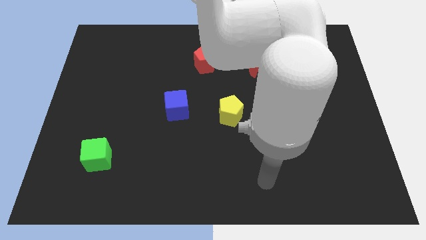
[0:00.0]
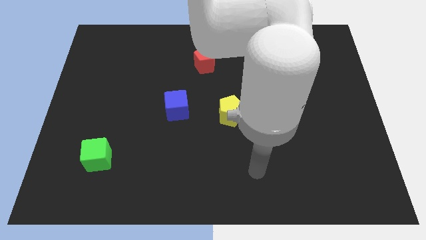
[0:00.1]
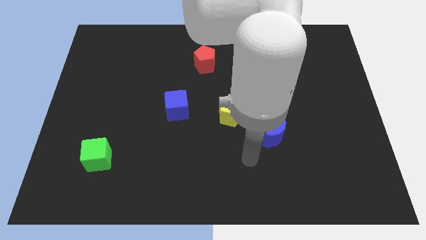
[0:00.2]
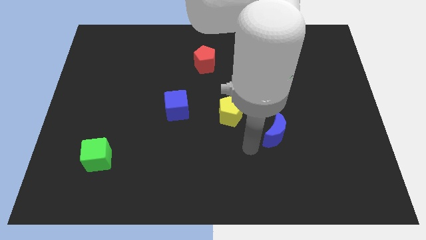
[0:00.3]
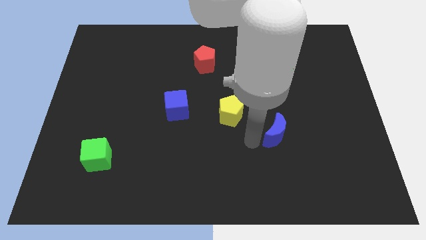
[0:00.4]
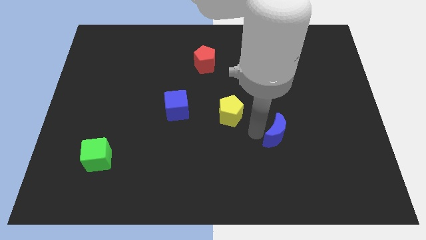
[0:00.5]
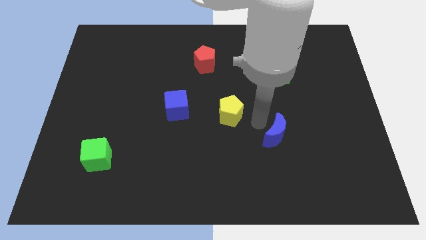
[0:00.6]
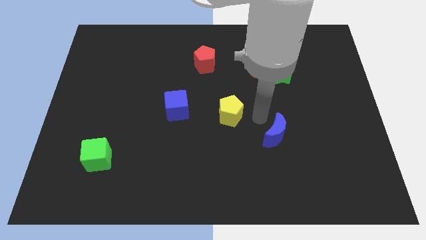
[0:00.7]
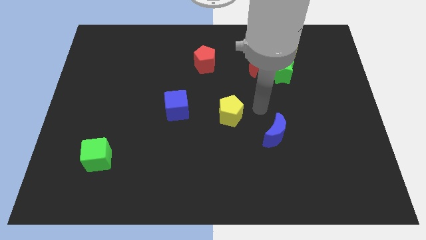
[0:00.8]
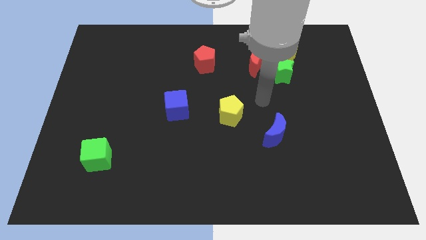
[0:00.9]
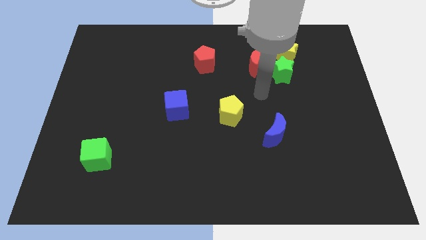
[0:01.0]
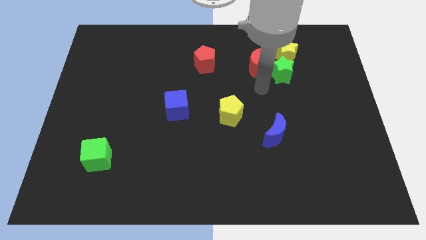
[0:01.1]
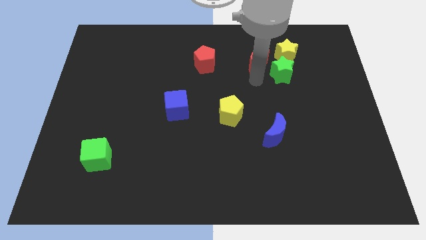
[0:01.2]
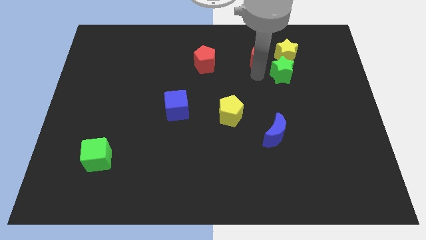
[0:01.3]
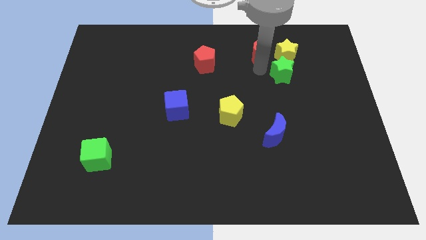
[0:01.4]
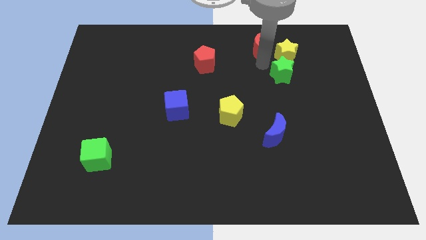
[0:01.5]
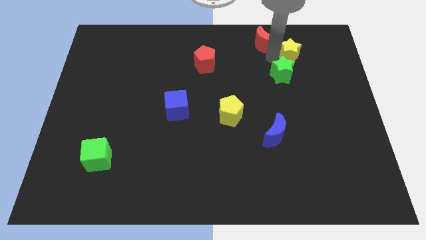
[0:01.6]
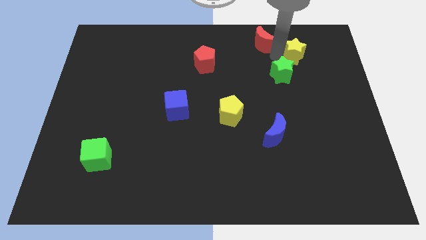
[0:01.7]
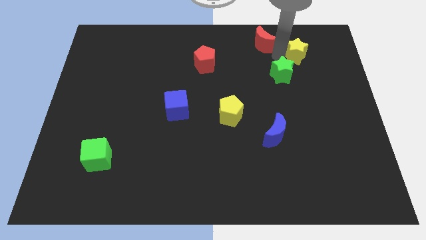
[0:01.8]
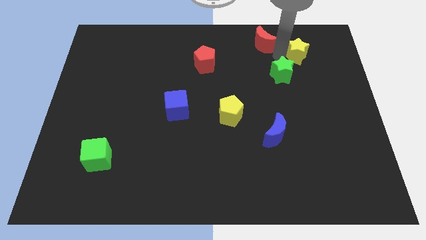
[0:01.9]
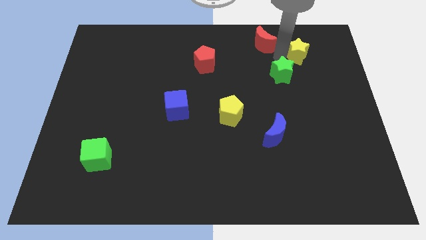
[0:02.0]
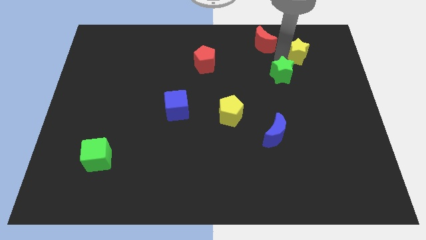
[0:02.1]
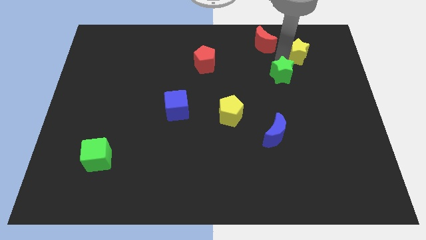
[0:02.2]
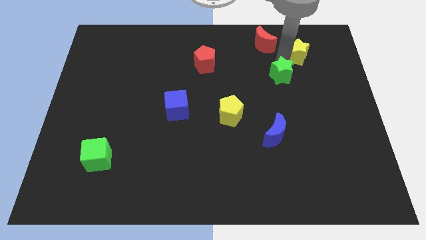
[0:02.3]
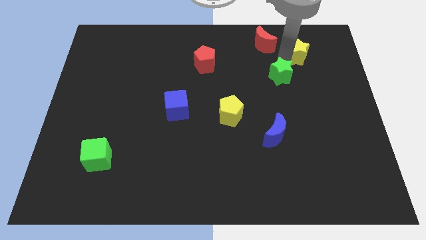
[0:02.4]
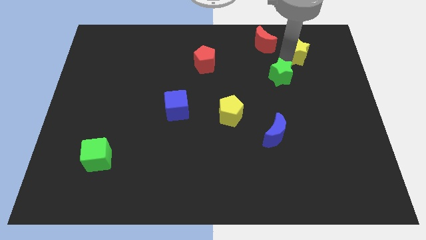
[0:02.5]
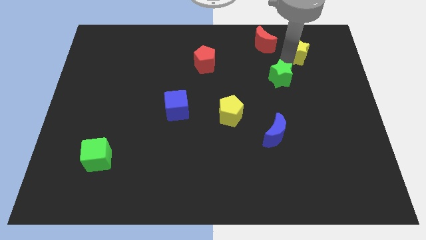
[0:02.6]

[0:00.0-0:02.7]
move the green star away from the yellow star and red moon

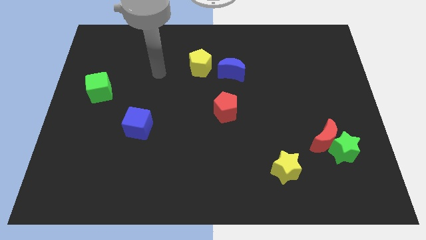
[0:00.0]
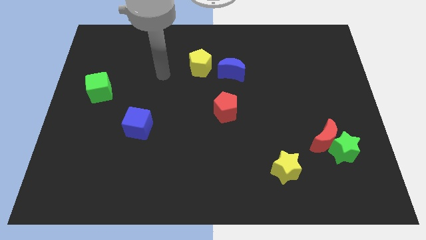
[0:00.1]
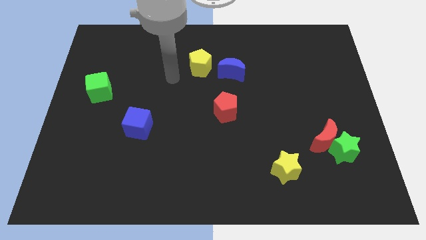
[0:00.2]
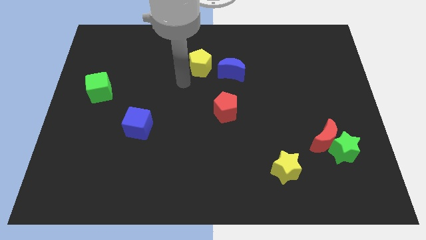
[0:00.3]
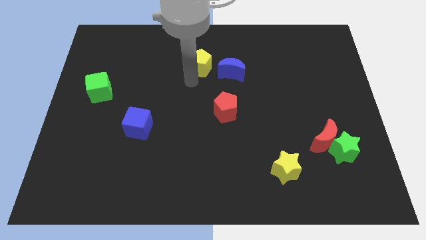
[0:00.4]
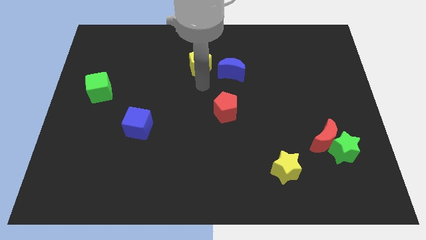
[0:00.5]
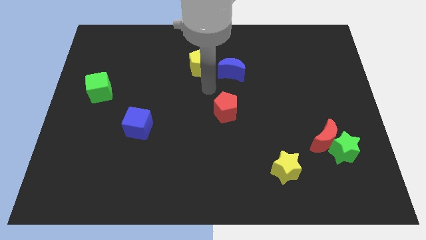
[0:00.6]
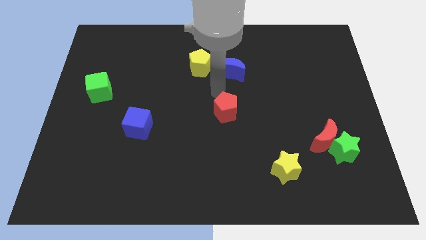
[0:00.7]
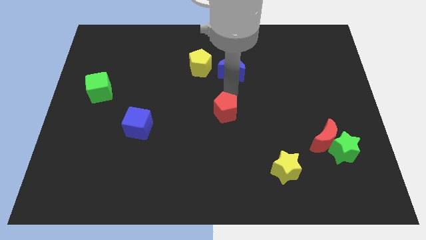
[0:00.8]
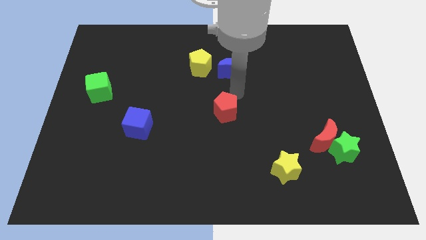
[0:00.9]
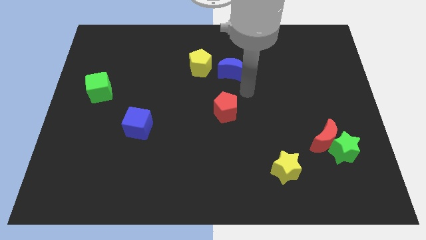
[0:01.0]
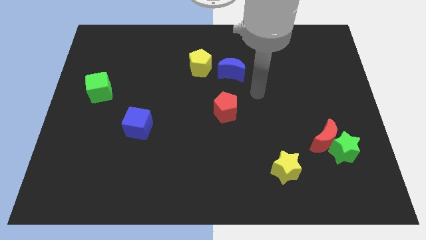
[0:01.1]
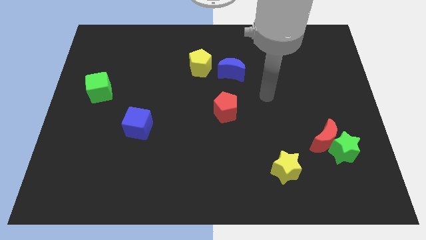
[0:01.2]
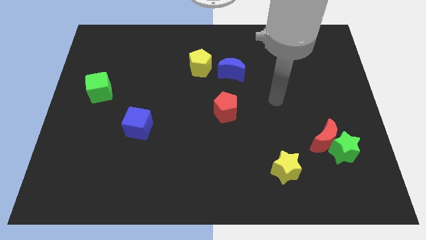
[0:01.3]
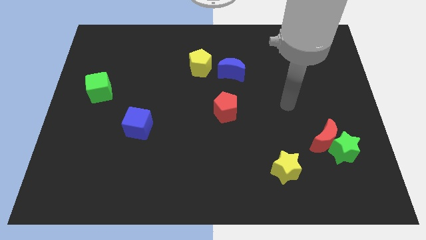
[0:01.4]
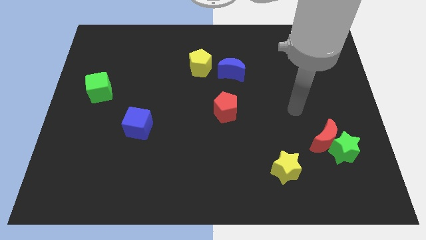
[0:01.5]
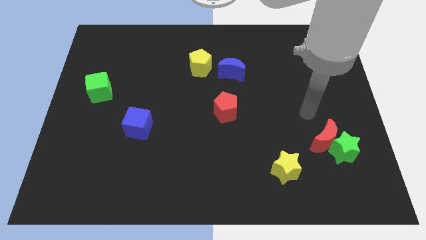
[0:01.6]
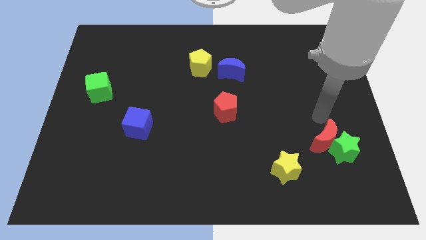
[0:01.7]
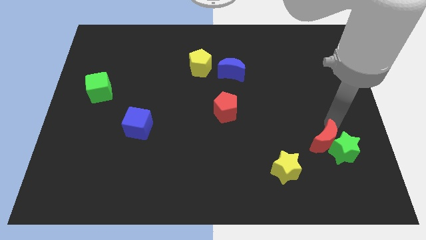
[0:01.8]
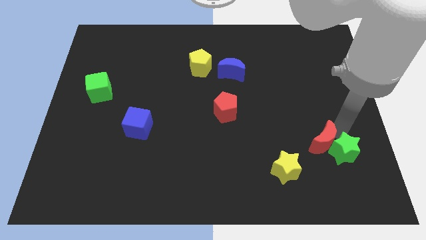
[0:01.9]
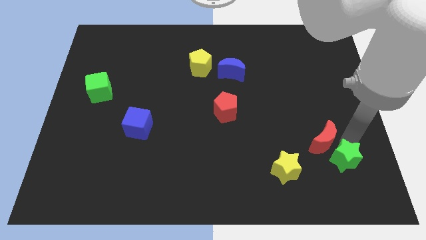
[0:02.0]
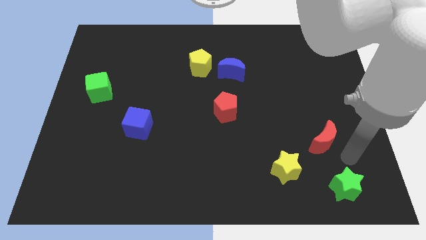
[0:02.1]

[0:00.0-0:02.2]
pull the red moon apart from the green star

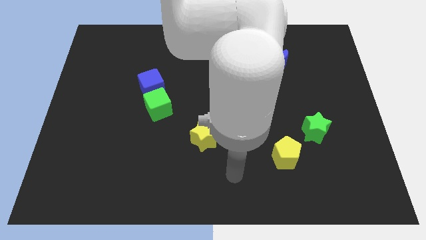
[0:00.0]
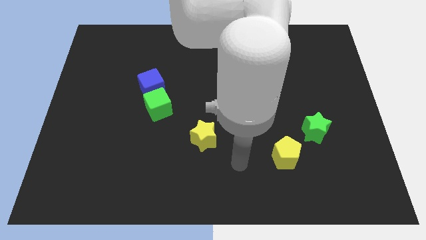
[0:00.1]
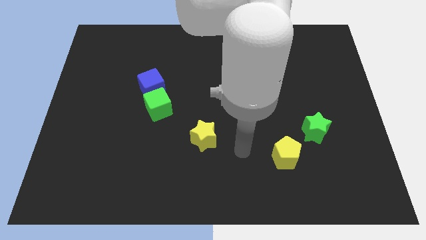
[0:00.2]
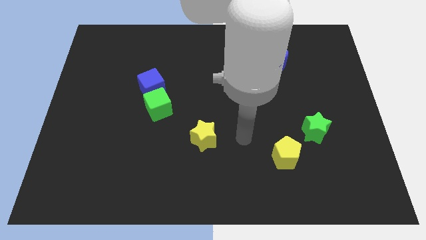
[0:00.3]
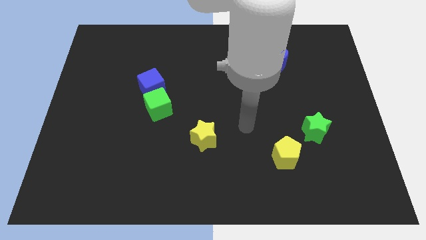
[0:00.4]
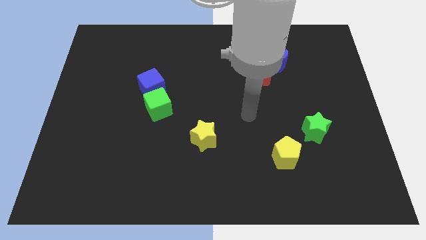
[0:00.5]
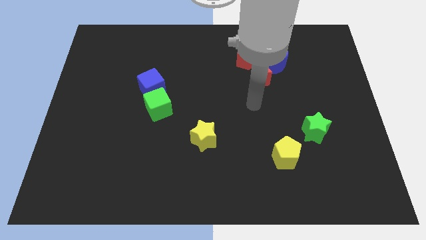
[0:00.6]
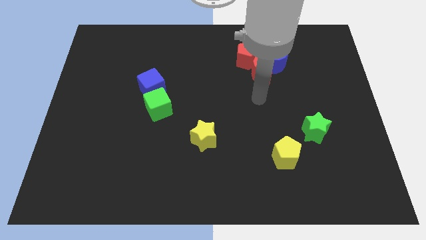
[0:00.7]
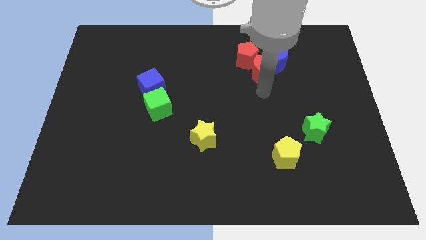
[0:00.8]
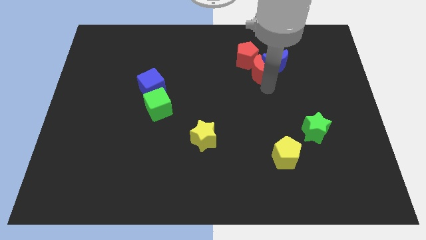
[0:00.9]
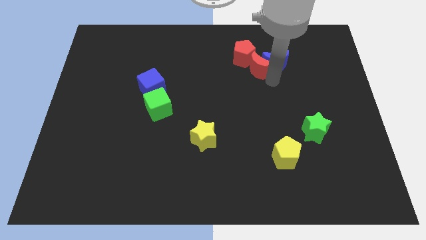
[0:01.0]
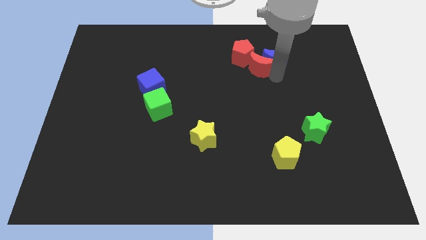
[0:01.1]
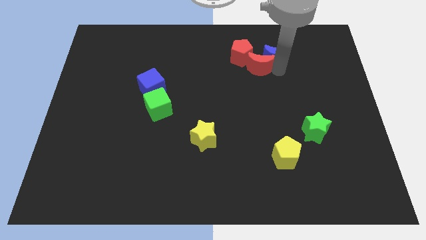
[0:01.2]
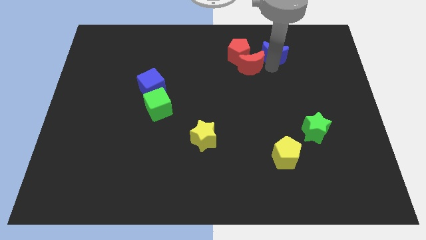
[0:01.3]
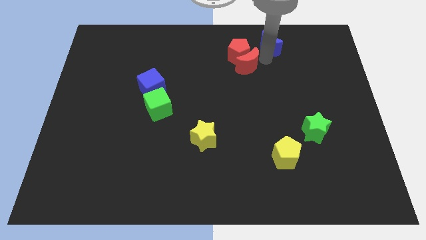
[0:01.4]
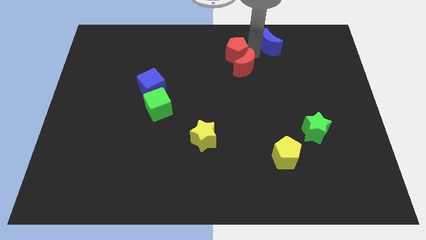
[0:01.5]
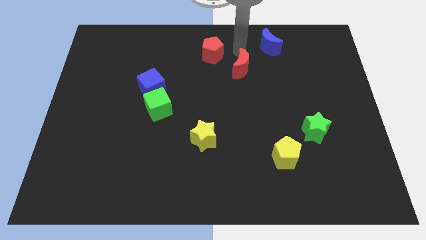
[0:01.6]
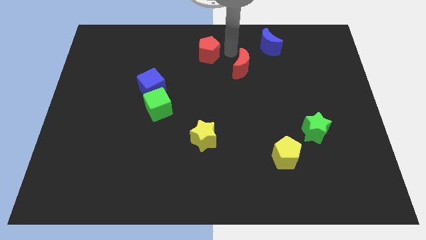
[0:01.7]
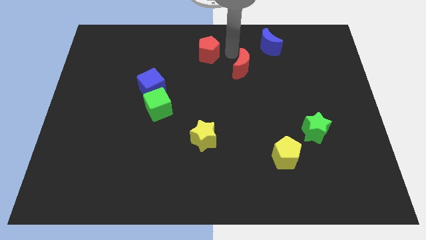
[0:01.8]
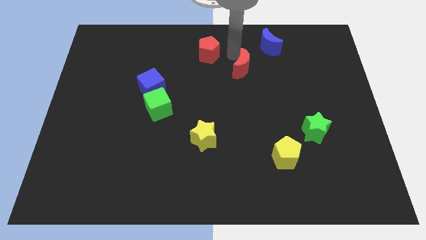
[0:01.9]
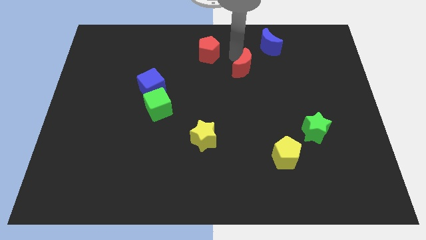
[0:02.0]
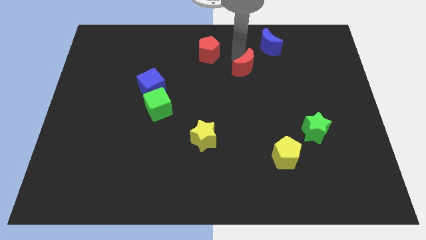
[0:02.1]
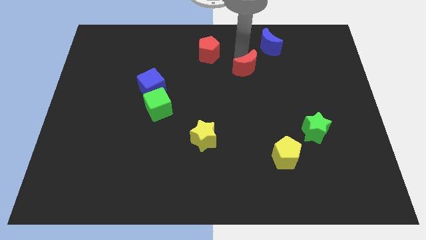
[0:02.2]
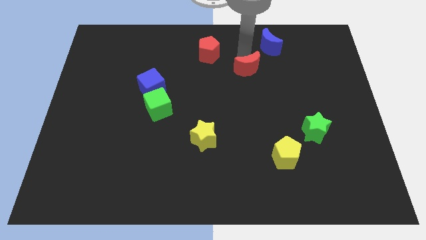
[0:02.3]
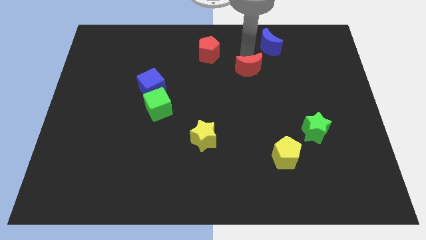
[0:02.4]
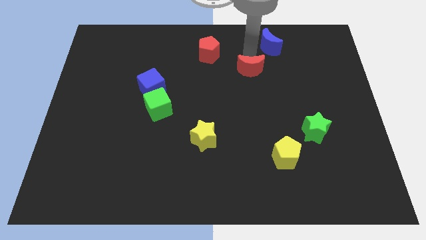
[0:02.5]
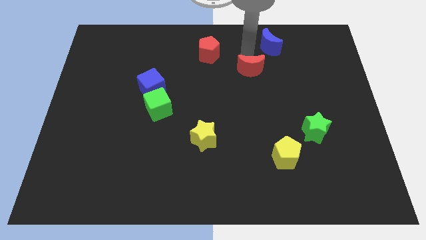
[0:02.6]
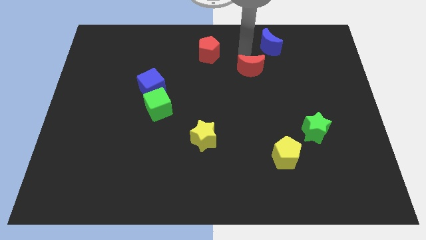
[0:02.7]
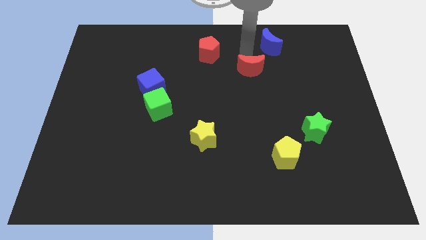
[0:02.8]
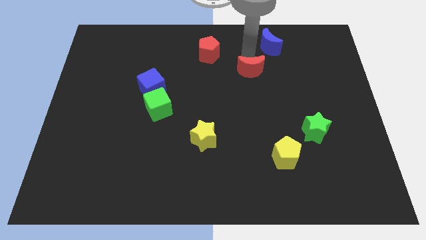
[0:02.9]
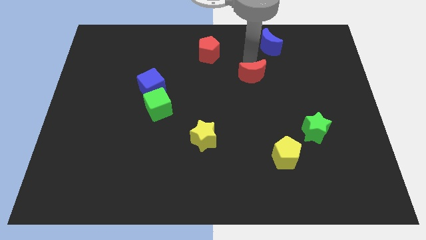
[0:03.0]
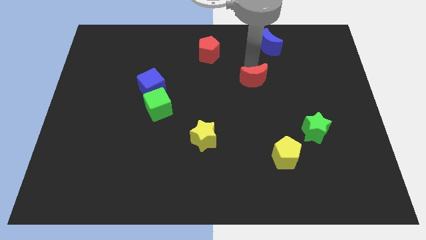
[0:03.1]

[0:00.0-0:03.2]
pull the red moon apart from the blue moon and red pentagon

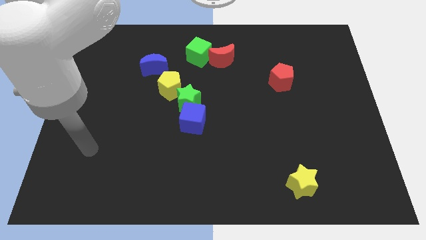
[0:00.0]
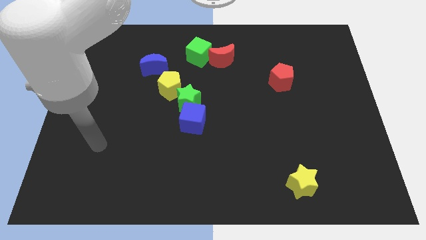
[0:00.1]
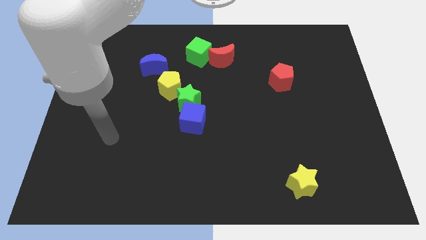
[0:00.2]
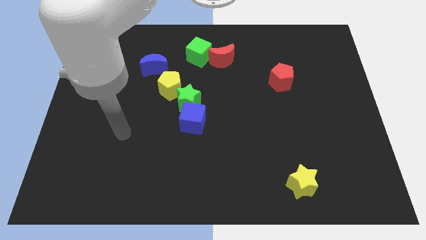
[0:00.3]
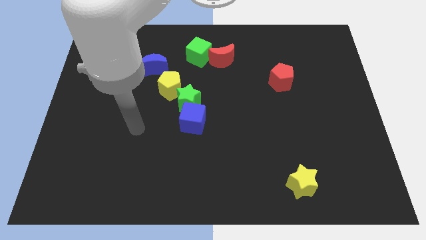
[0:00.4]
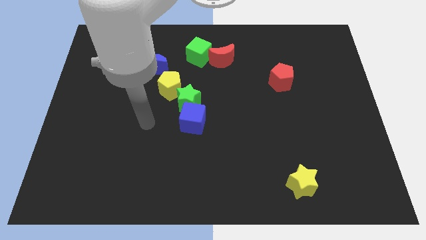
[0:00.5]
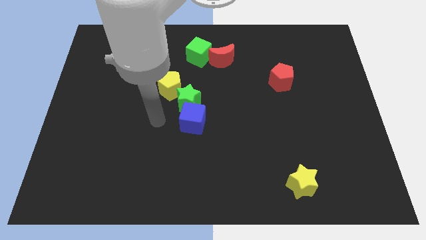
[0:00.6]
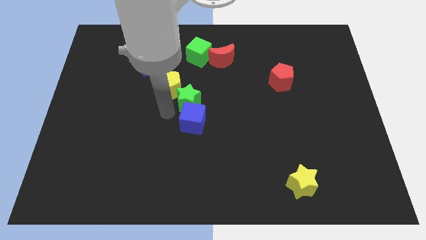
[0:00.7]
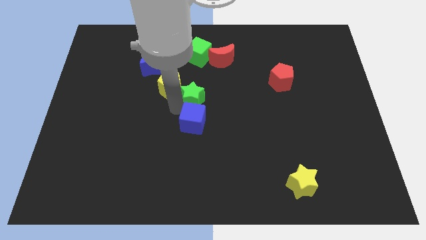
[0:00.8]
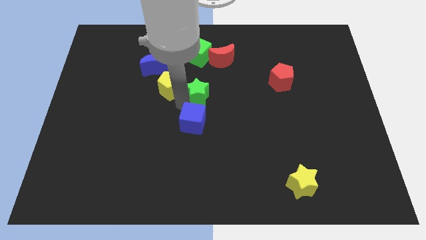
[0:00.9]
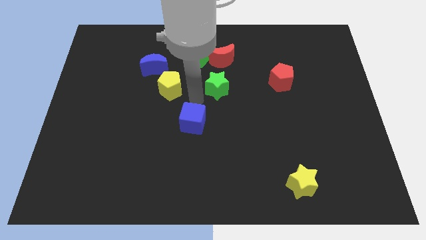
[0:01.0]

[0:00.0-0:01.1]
pull the blue cube apart from the green star

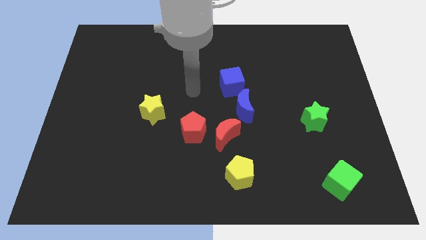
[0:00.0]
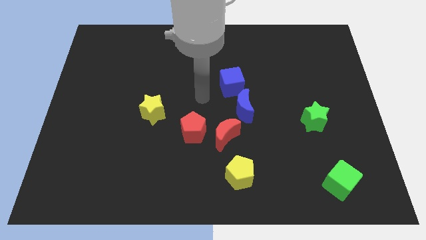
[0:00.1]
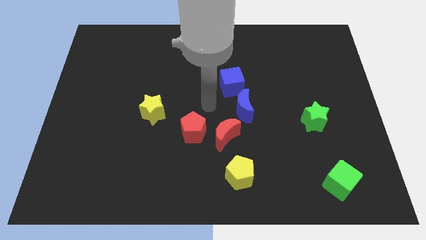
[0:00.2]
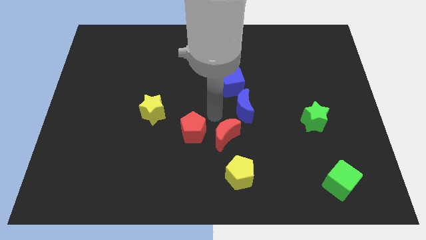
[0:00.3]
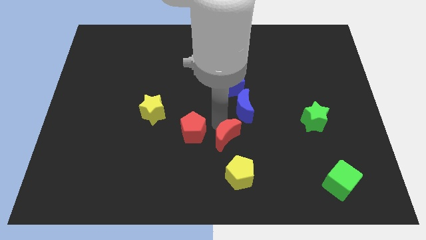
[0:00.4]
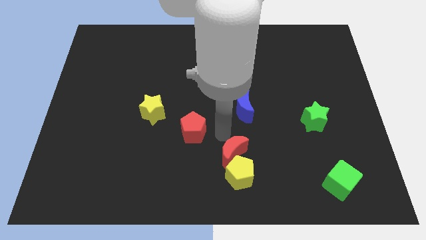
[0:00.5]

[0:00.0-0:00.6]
move the red pentagon away from the red moon
